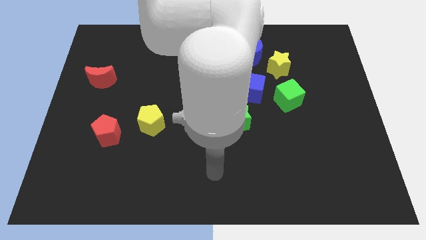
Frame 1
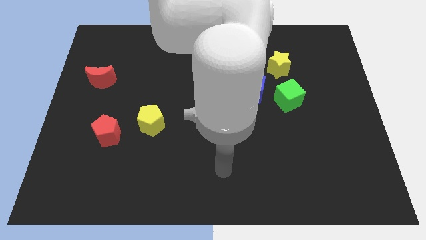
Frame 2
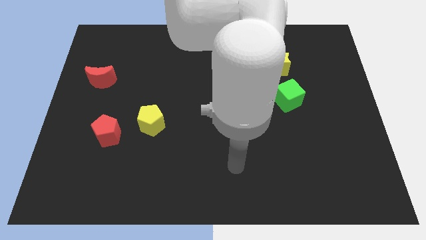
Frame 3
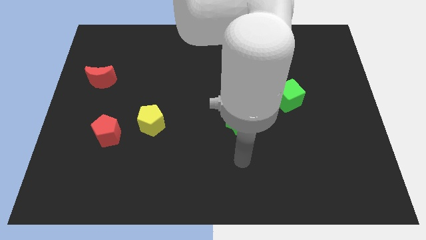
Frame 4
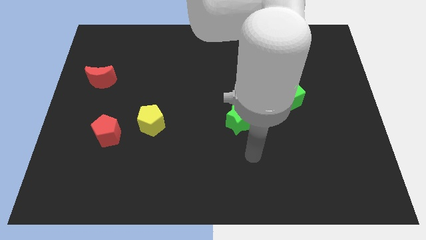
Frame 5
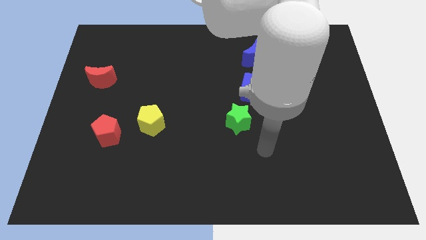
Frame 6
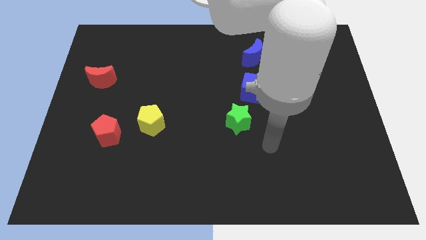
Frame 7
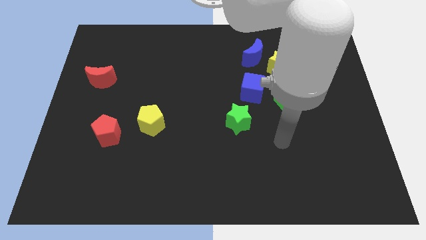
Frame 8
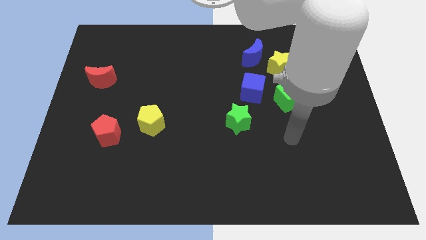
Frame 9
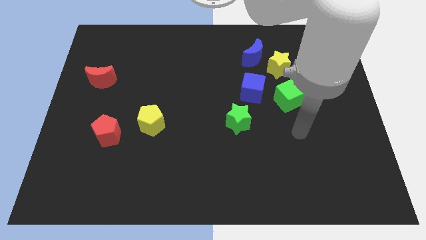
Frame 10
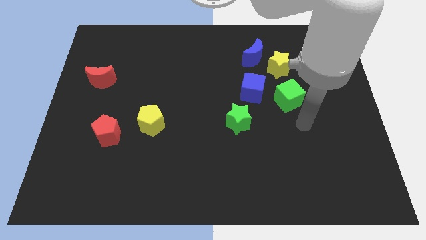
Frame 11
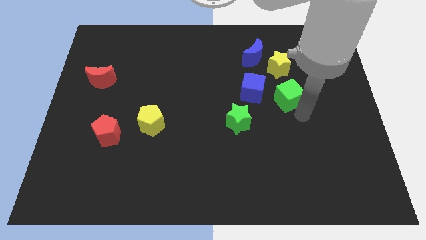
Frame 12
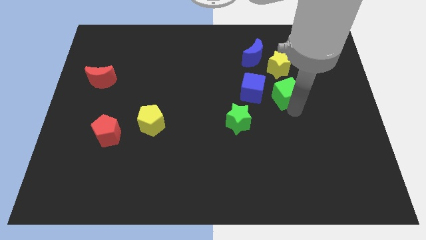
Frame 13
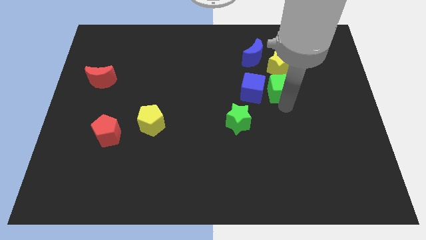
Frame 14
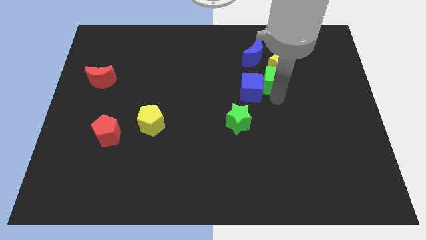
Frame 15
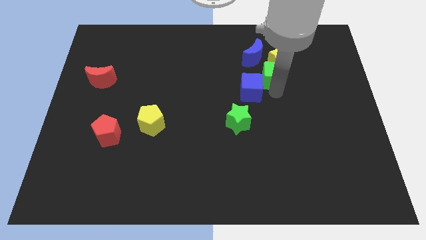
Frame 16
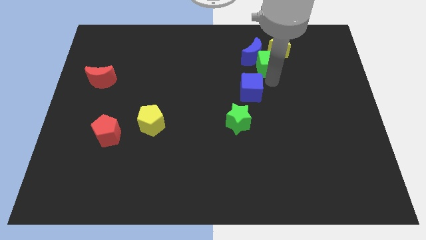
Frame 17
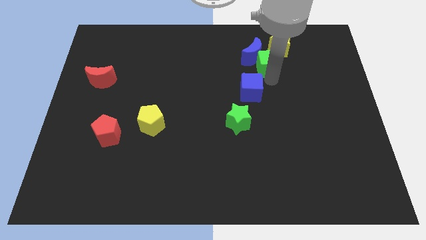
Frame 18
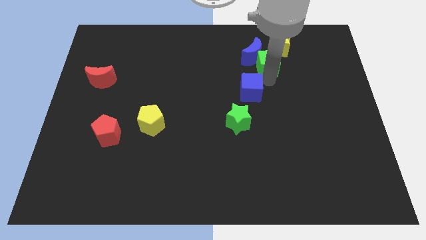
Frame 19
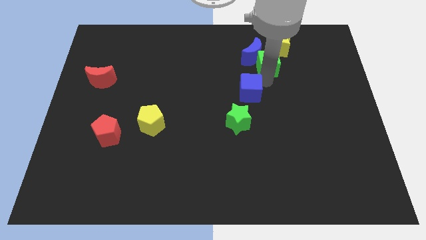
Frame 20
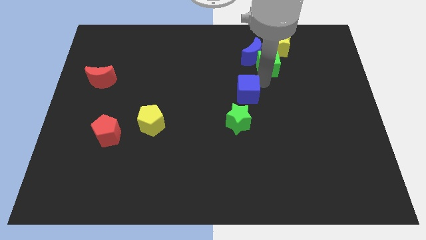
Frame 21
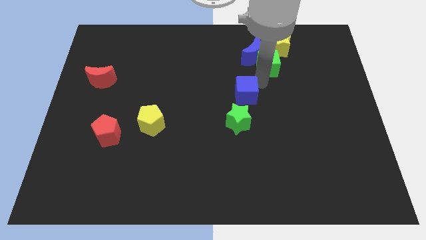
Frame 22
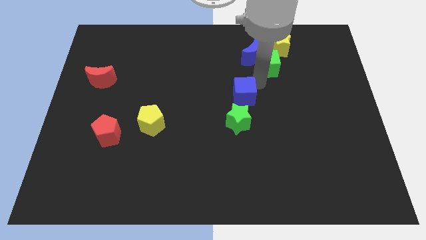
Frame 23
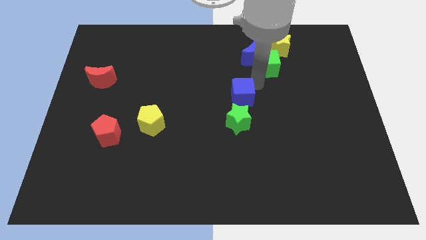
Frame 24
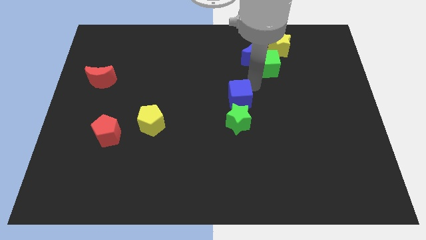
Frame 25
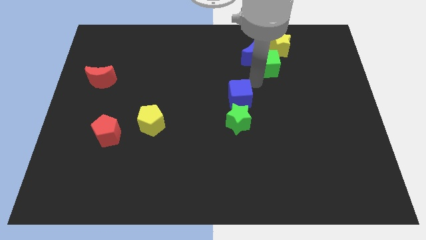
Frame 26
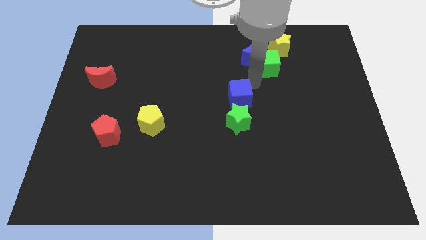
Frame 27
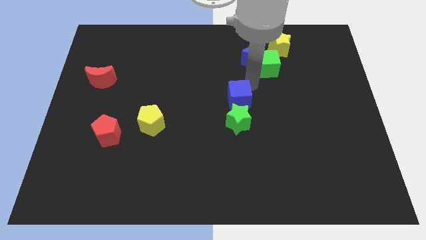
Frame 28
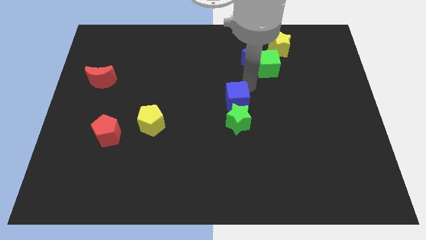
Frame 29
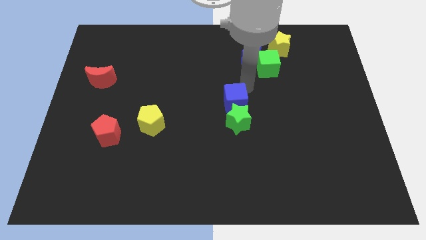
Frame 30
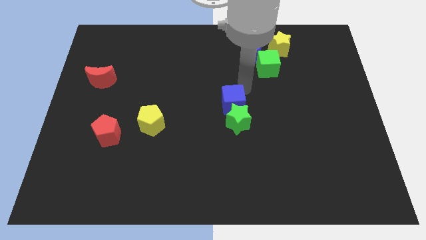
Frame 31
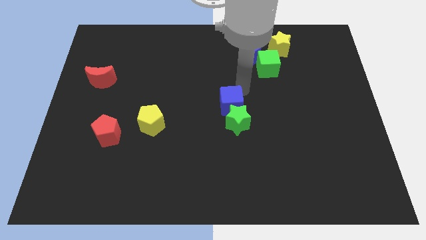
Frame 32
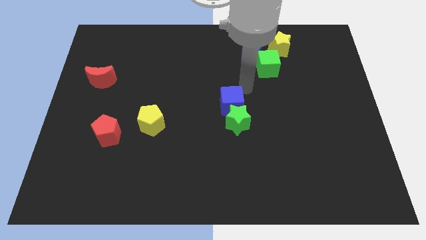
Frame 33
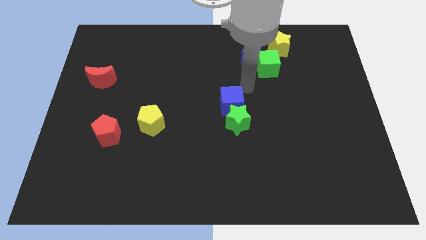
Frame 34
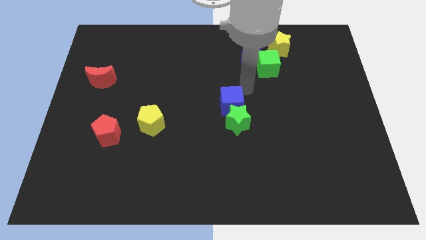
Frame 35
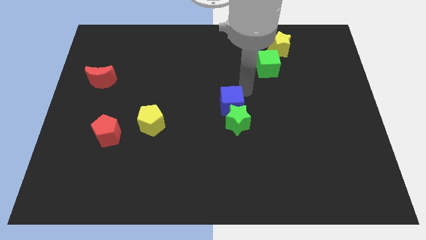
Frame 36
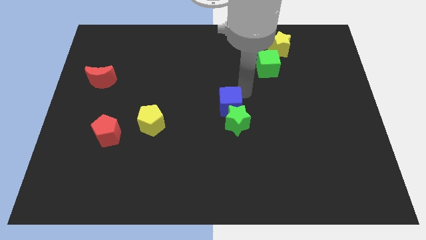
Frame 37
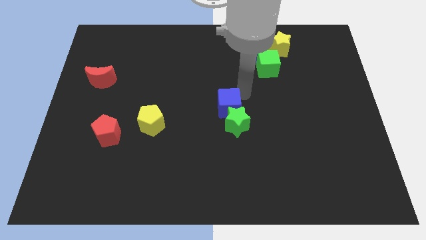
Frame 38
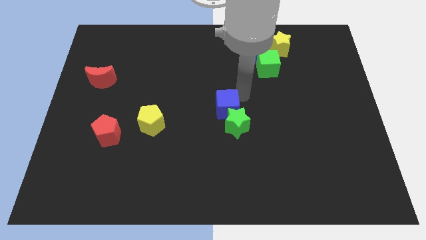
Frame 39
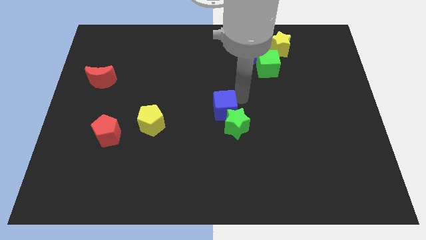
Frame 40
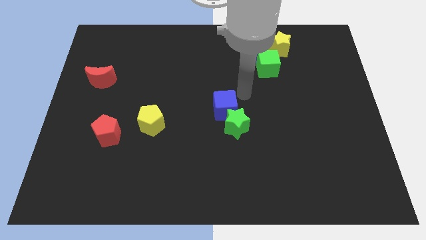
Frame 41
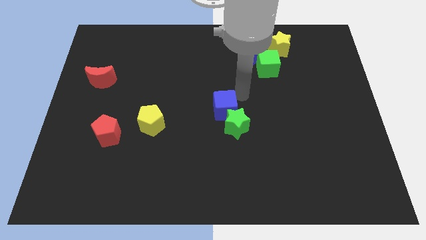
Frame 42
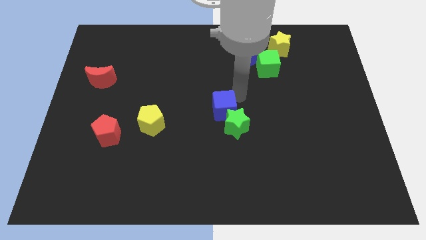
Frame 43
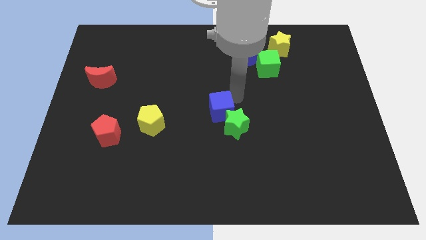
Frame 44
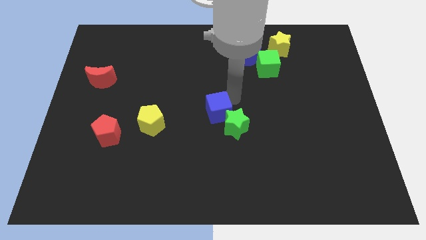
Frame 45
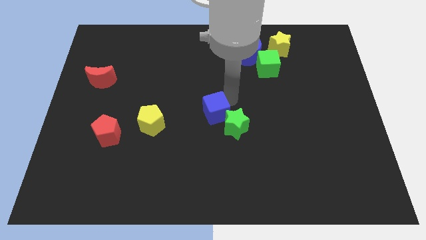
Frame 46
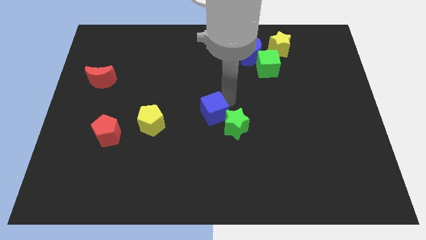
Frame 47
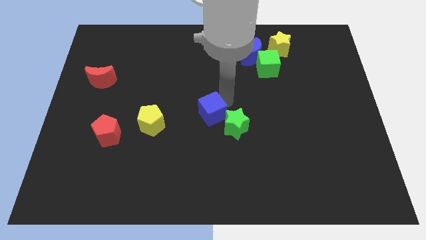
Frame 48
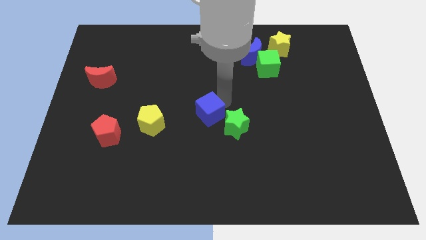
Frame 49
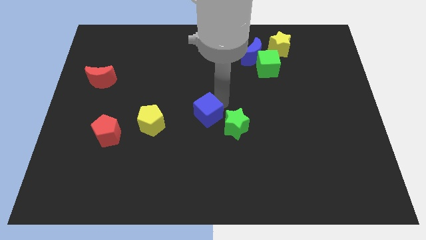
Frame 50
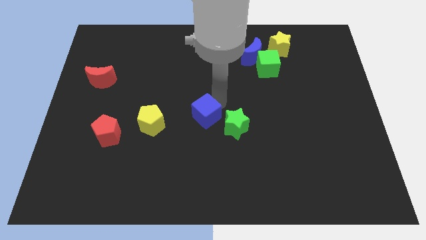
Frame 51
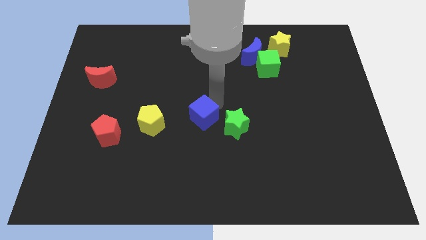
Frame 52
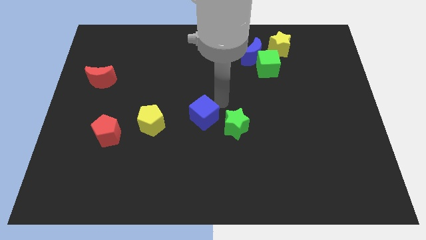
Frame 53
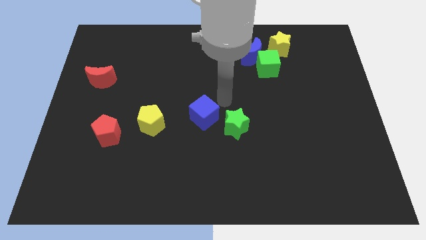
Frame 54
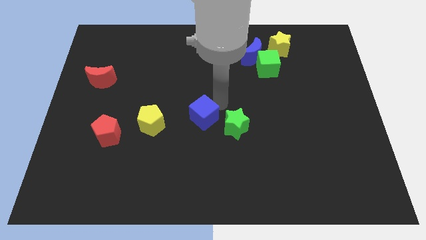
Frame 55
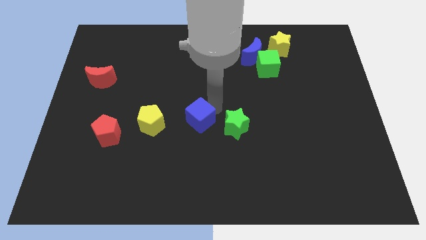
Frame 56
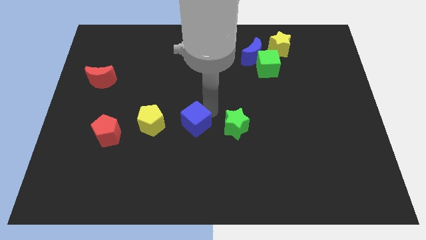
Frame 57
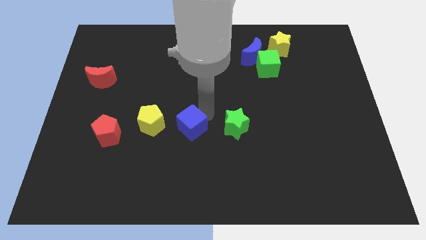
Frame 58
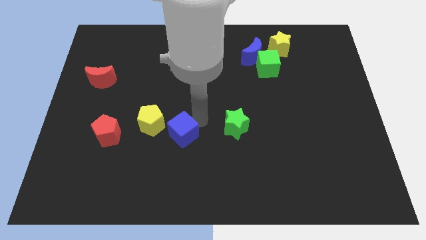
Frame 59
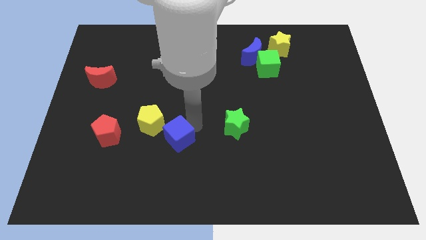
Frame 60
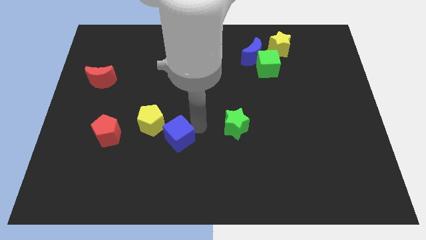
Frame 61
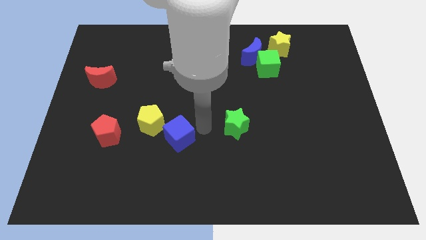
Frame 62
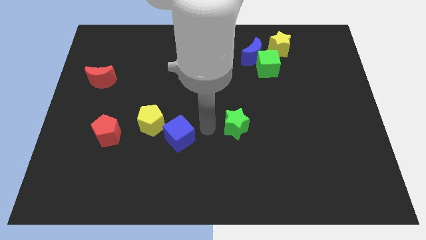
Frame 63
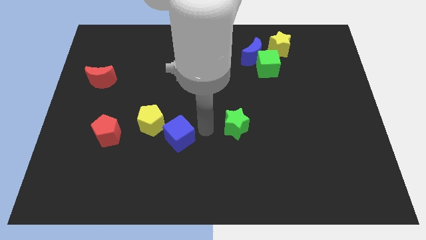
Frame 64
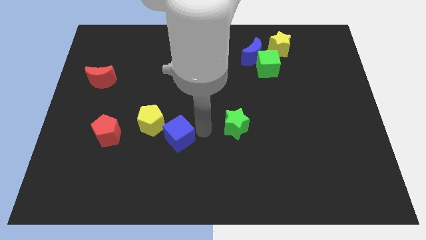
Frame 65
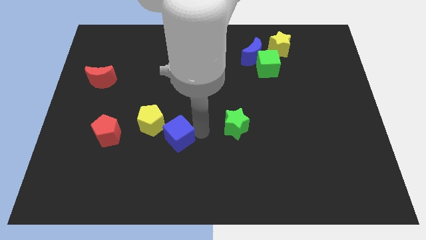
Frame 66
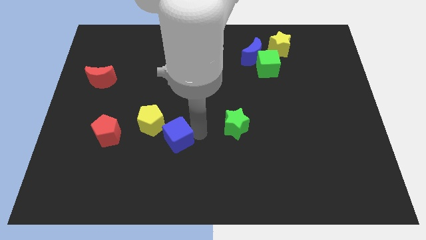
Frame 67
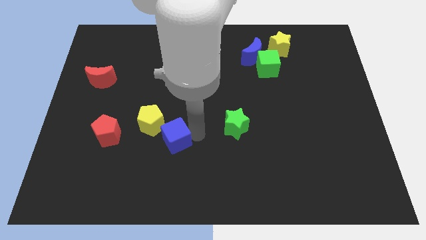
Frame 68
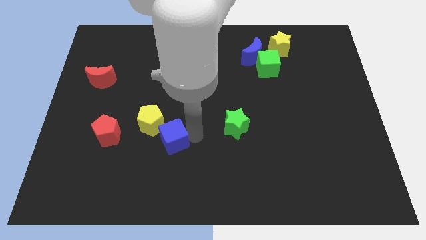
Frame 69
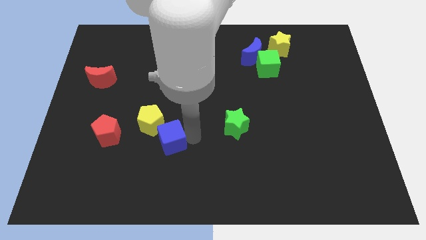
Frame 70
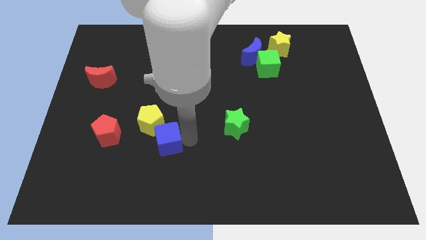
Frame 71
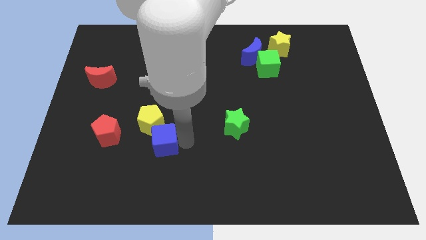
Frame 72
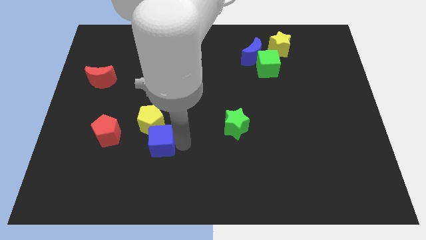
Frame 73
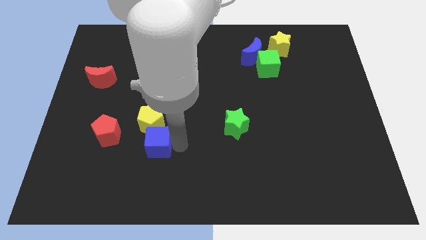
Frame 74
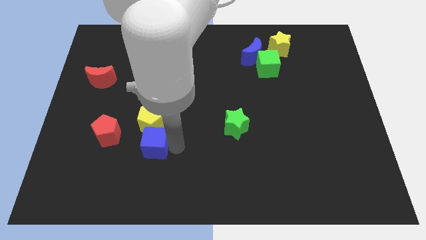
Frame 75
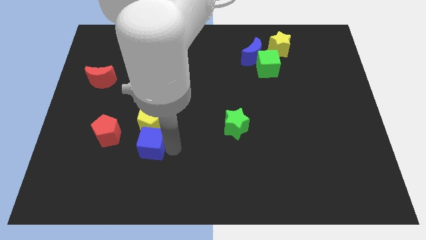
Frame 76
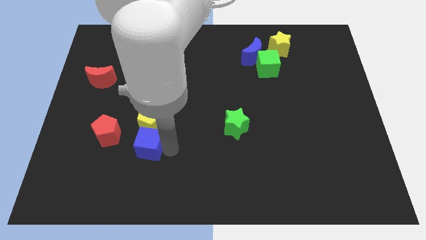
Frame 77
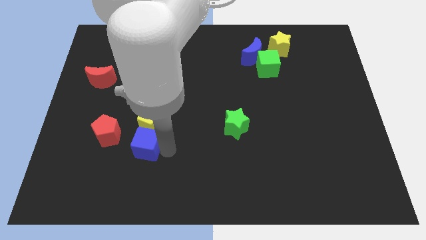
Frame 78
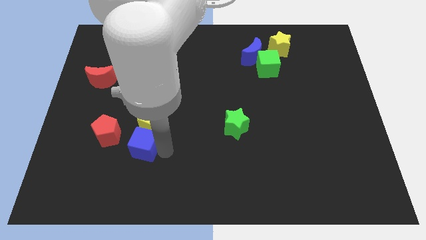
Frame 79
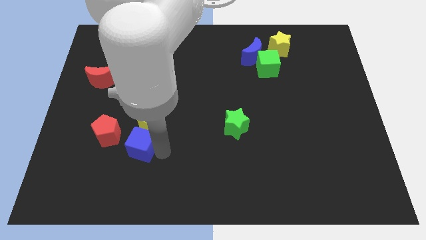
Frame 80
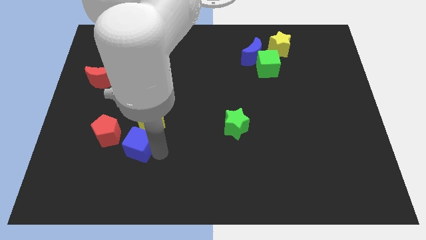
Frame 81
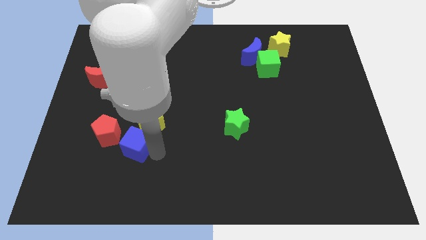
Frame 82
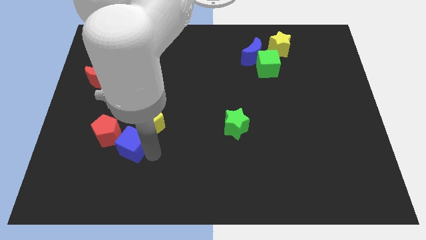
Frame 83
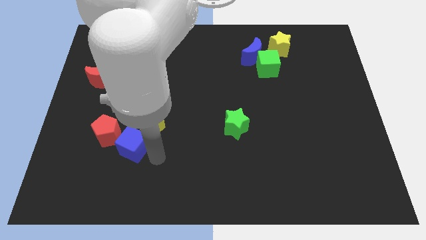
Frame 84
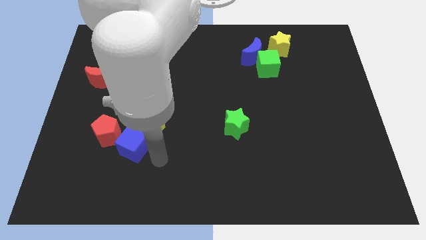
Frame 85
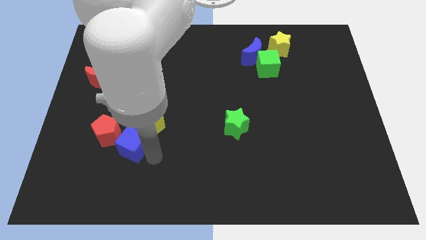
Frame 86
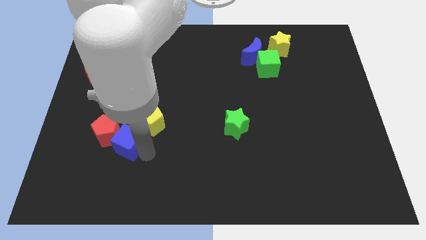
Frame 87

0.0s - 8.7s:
move the blue cube towards the red pentagon
